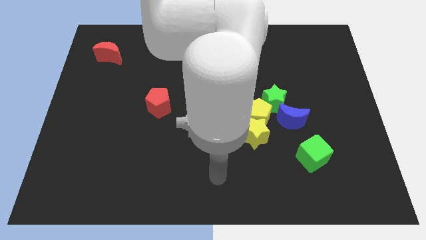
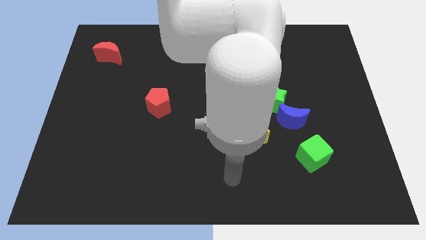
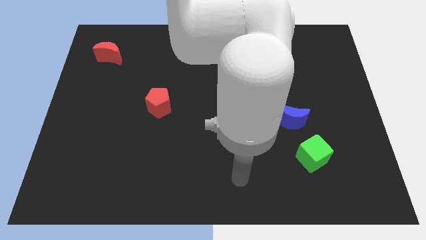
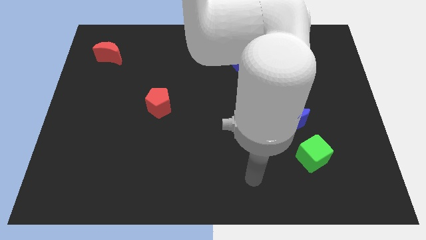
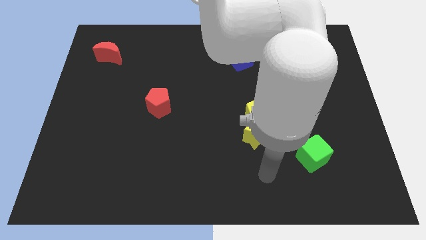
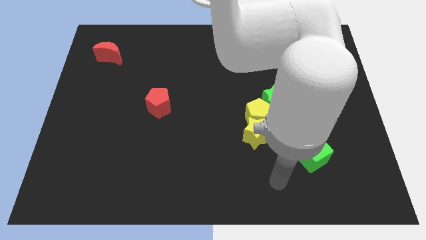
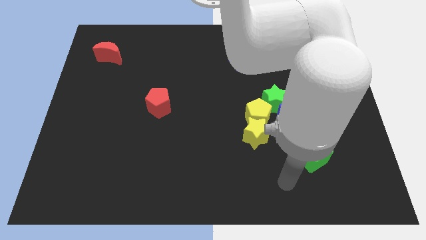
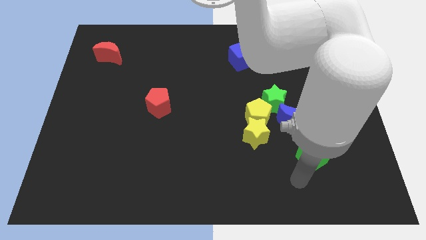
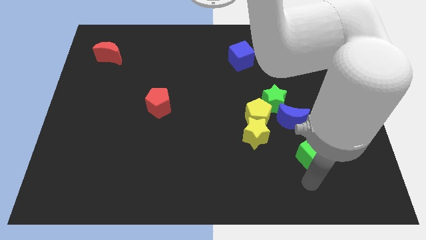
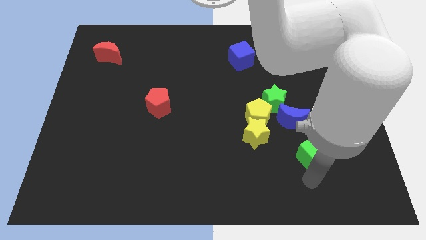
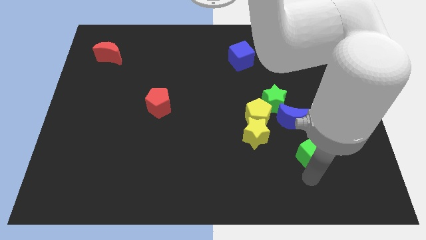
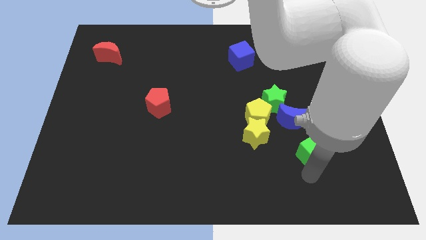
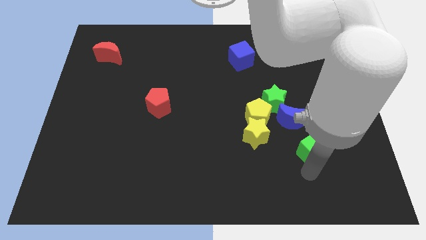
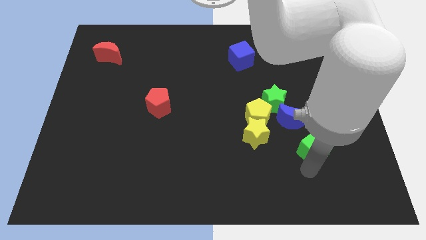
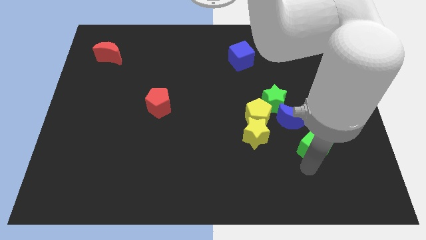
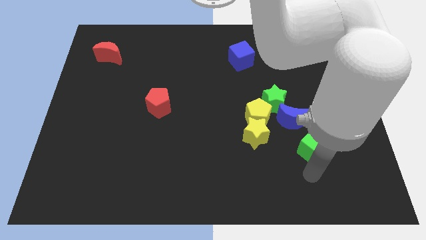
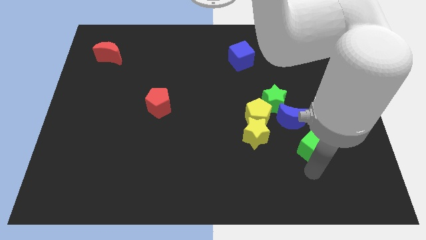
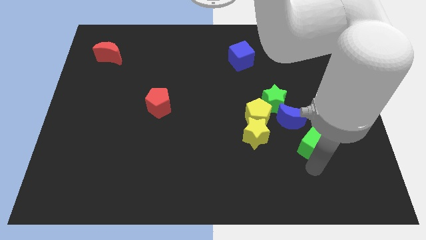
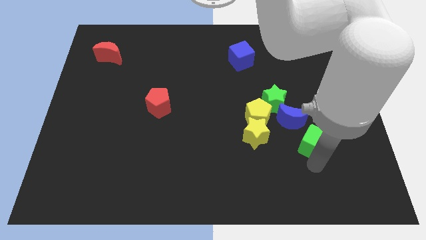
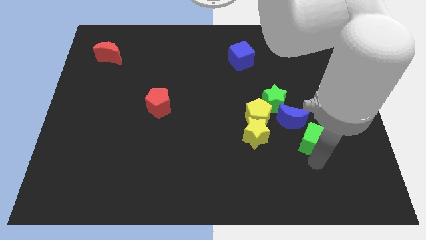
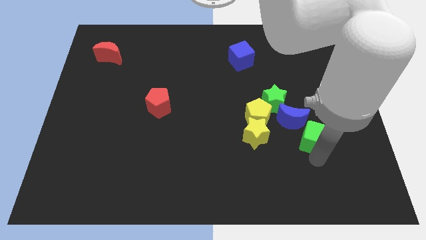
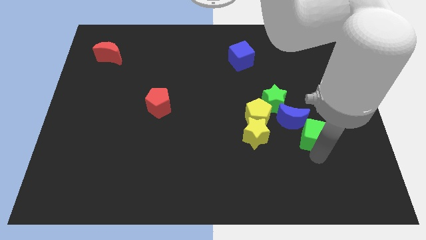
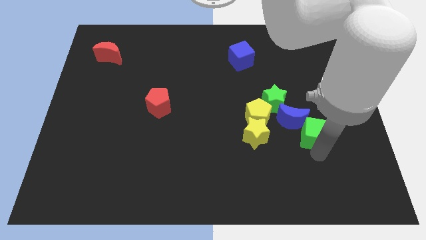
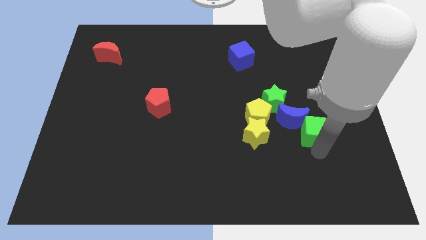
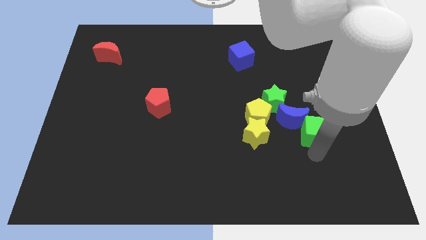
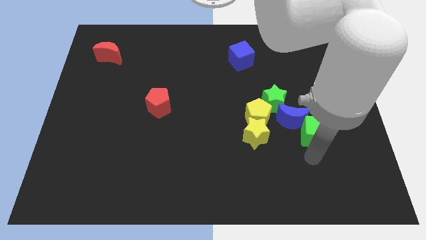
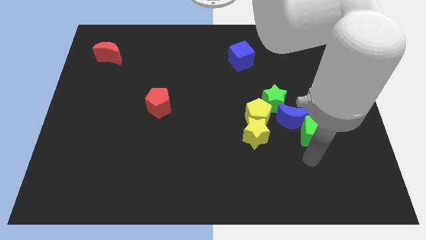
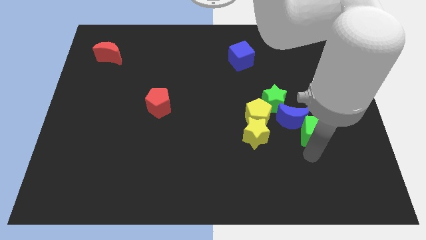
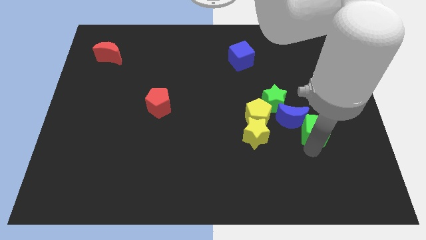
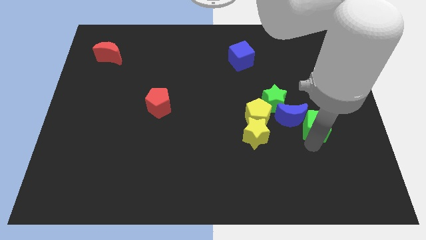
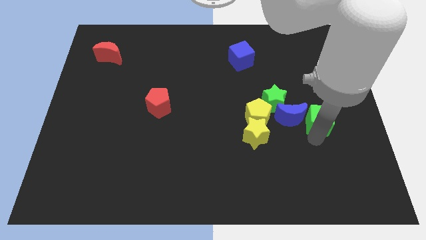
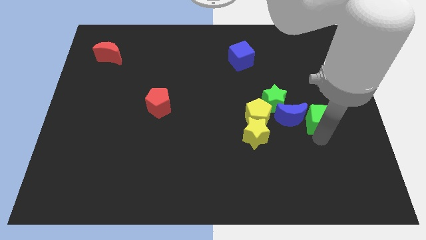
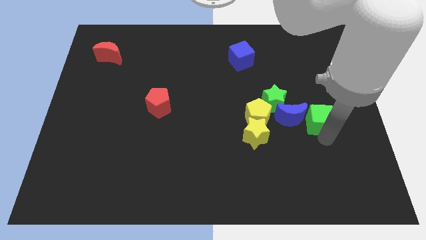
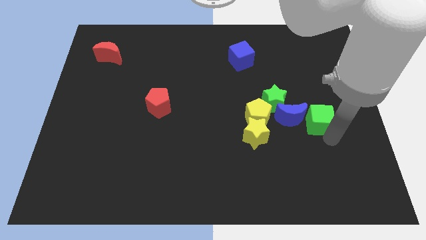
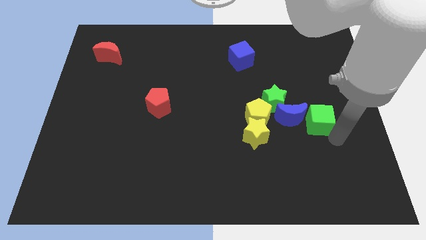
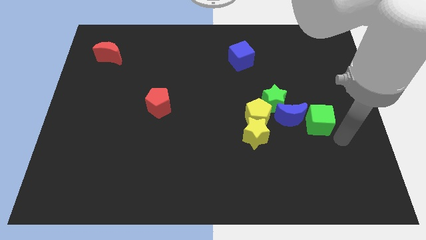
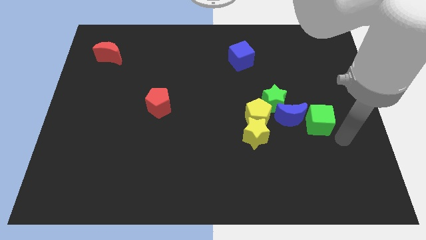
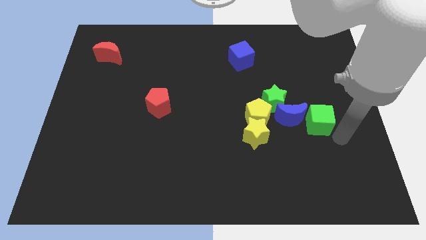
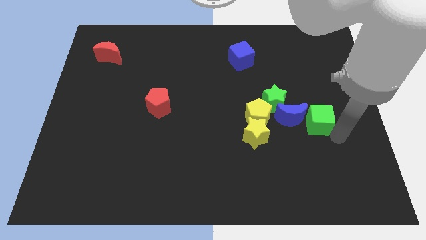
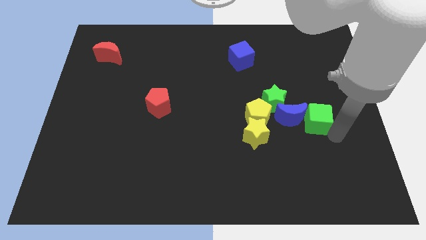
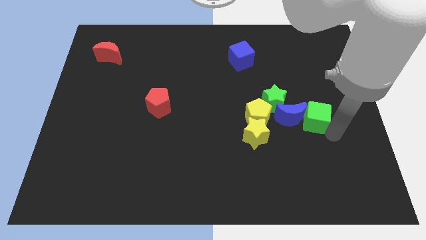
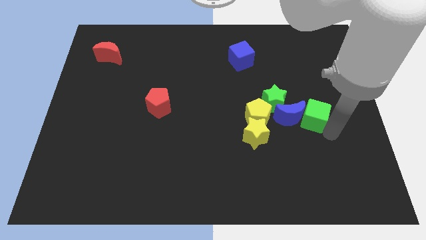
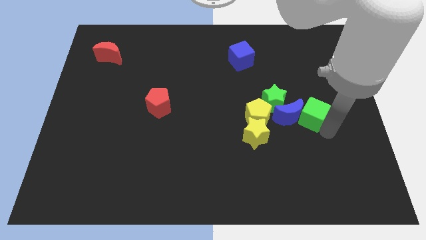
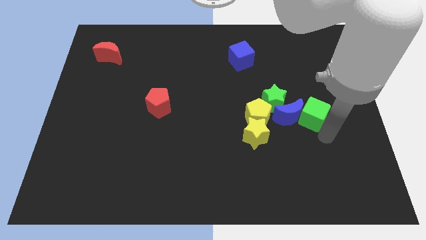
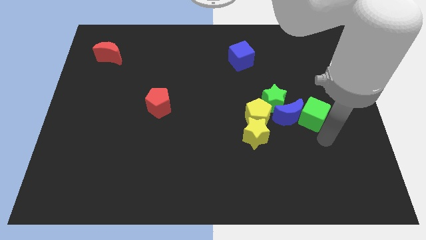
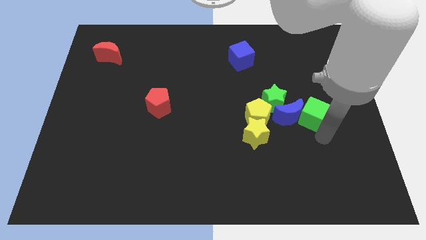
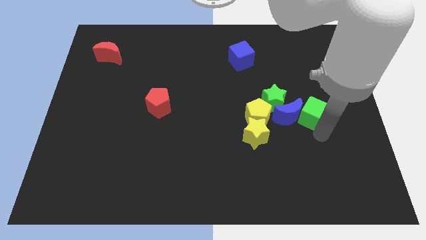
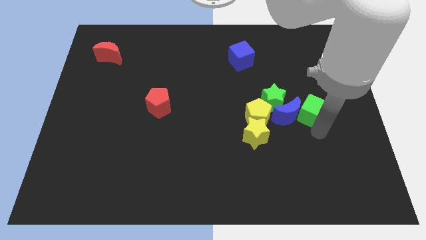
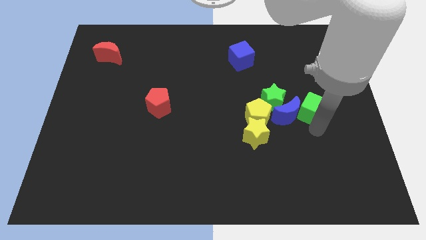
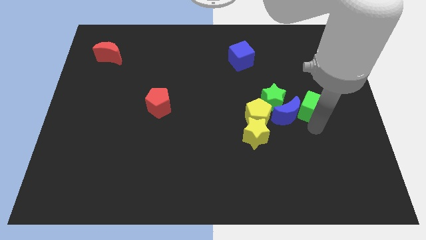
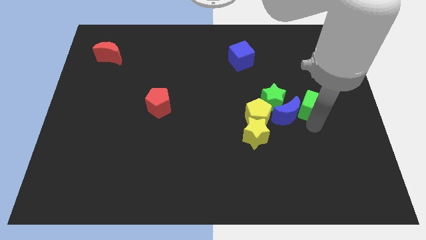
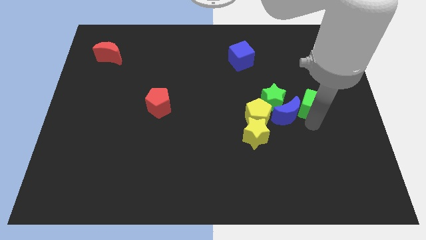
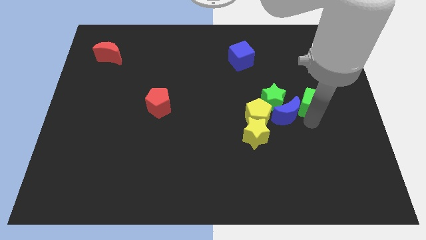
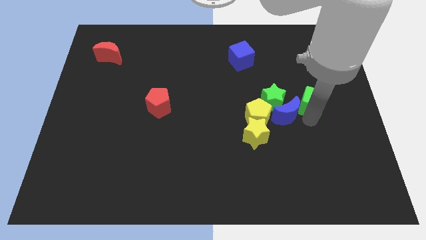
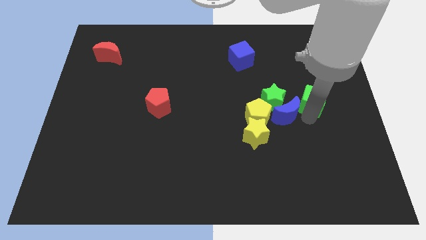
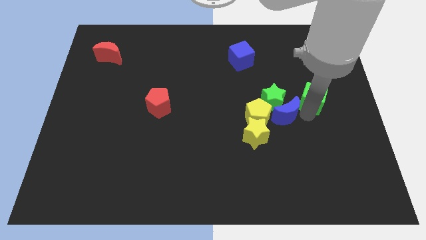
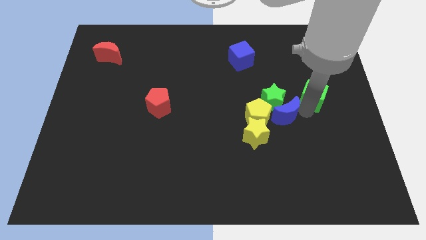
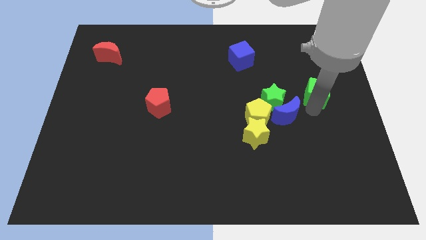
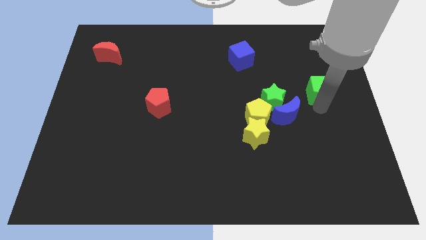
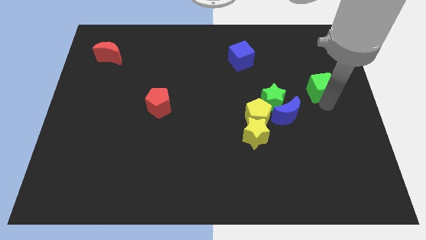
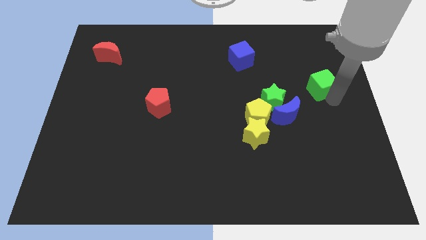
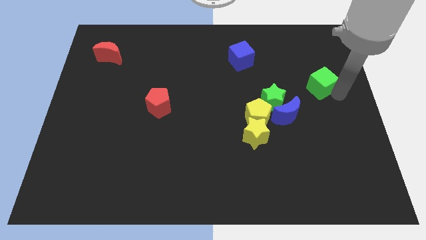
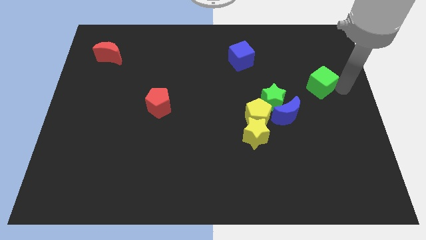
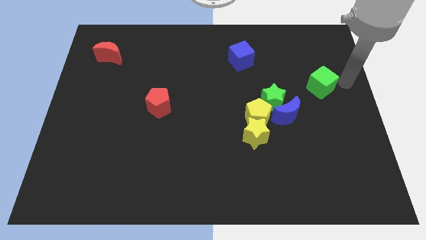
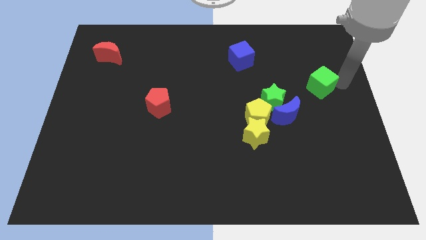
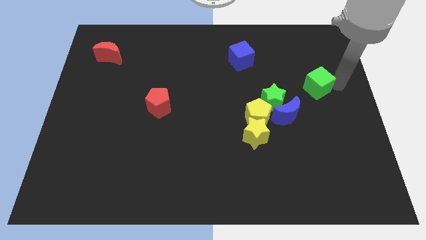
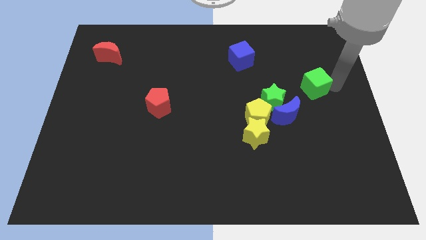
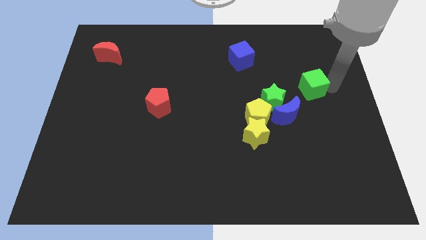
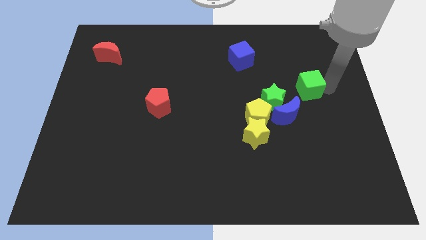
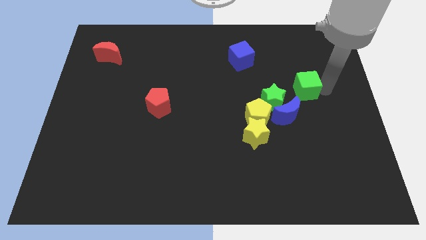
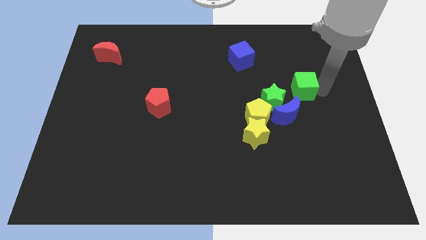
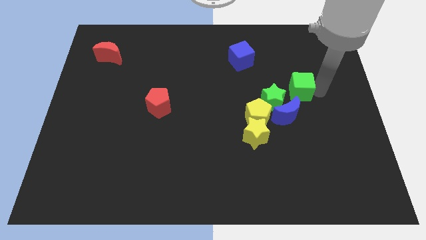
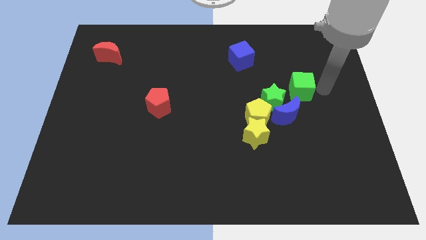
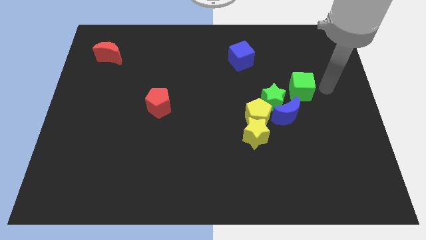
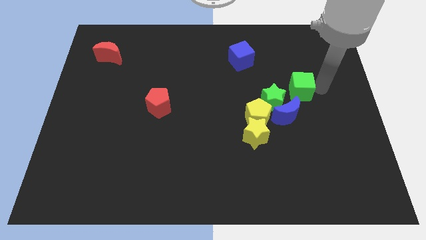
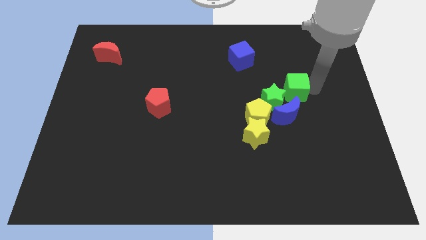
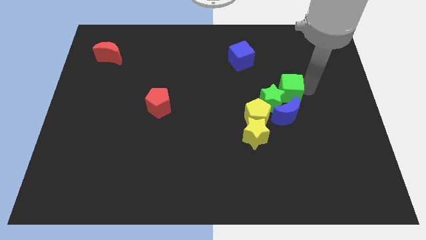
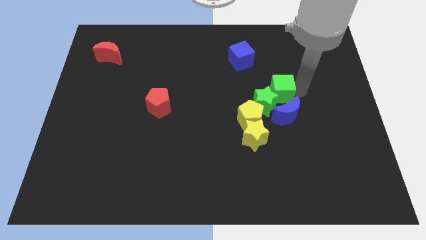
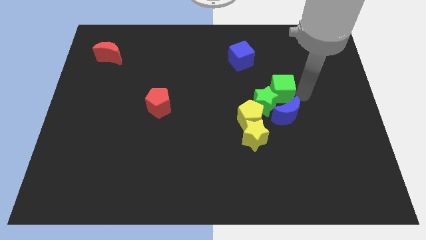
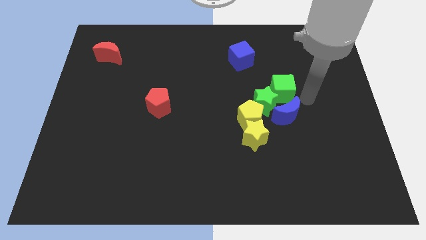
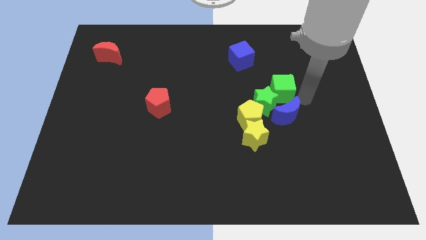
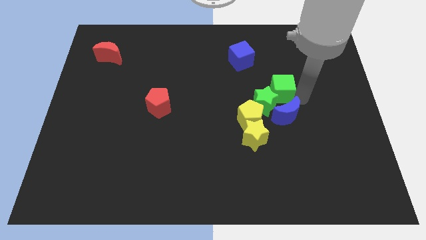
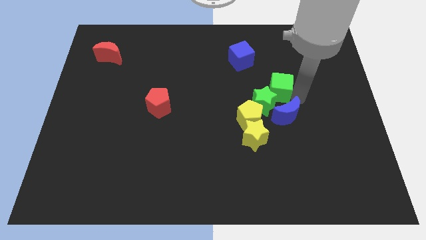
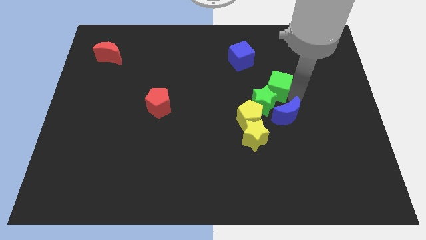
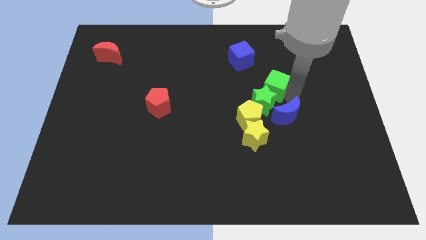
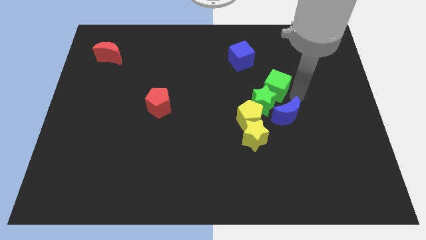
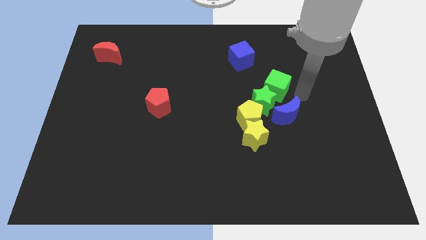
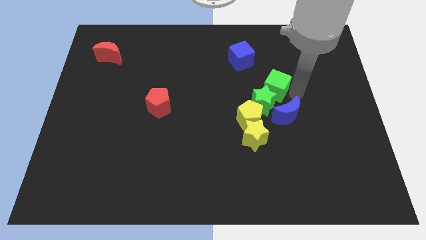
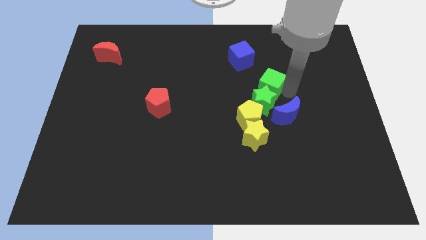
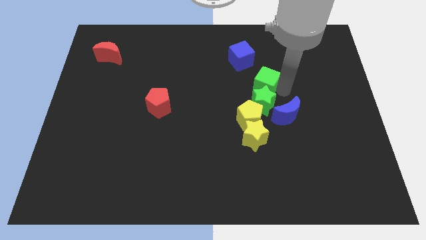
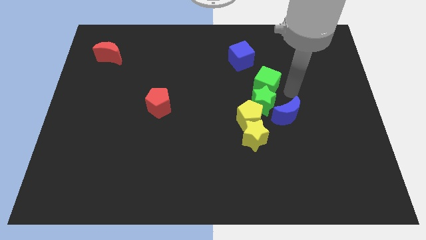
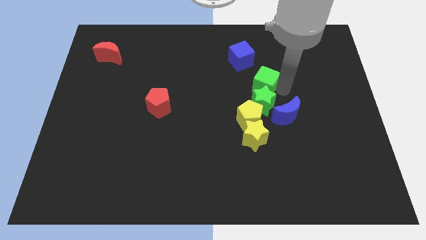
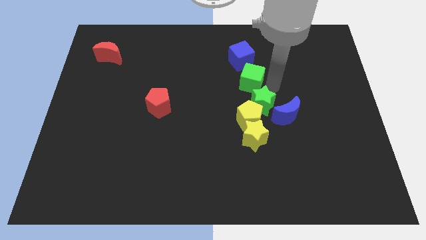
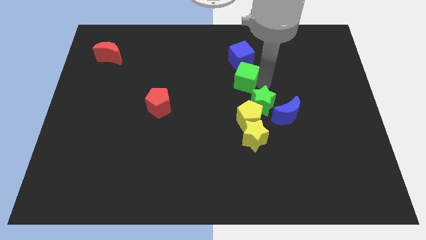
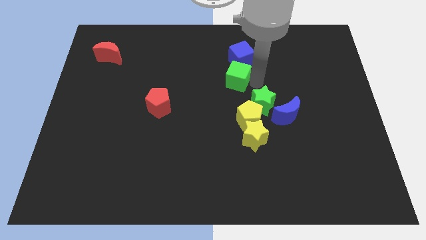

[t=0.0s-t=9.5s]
slide the green cube to the bottom left of the blue cube
